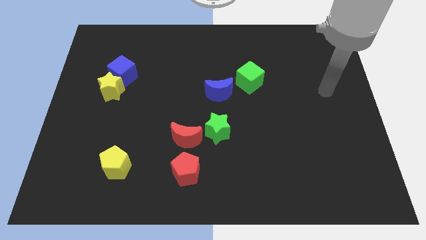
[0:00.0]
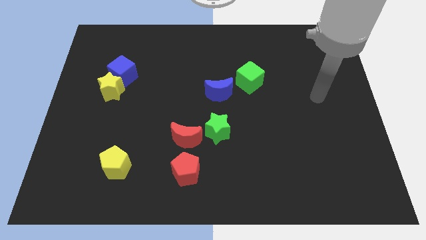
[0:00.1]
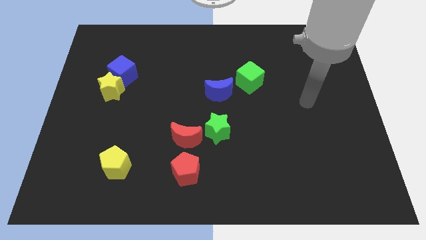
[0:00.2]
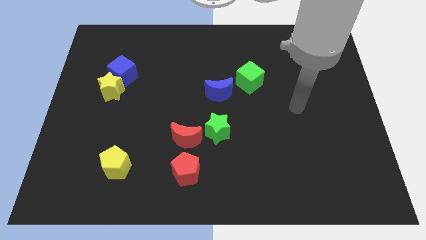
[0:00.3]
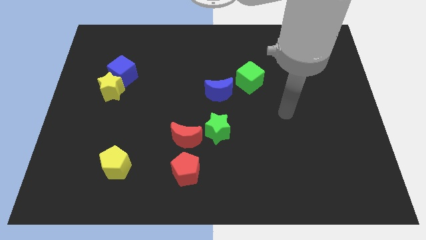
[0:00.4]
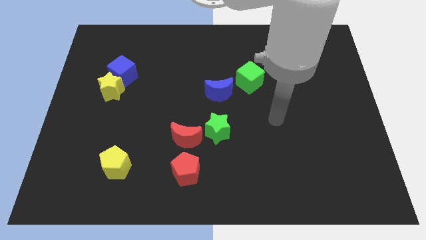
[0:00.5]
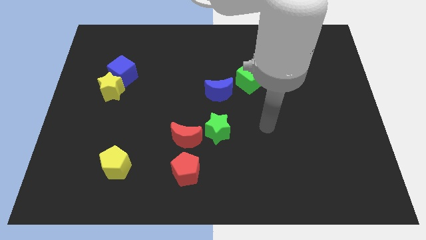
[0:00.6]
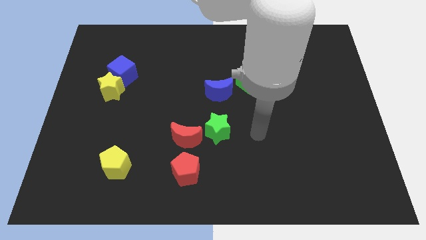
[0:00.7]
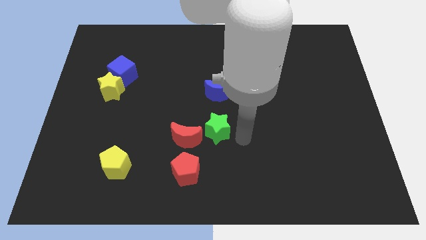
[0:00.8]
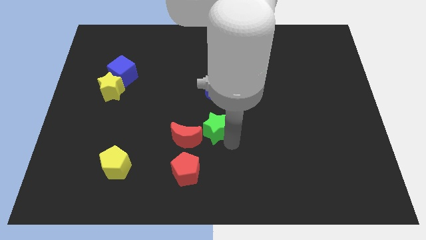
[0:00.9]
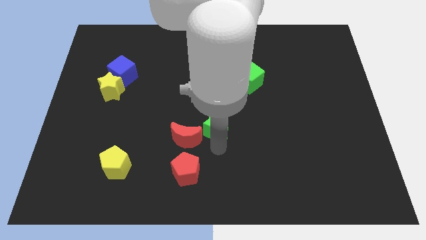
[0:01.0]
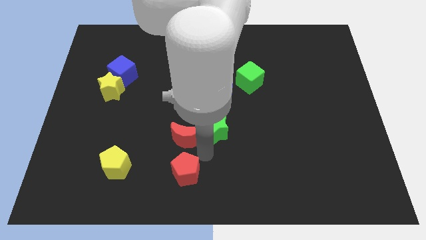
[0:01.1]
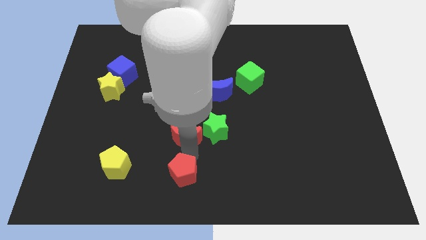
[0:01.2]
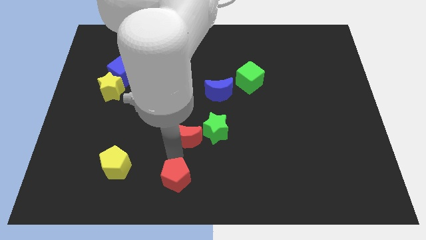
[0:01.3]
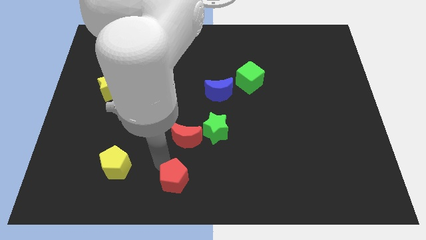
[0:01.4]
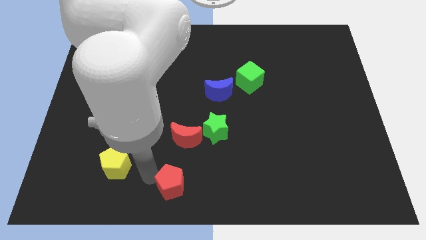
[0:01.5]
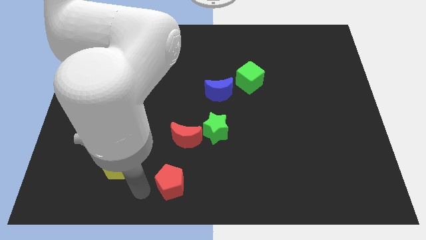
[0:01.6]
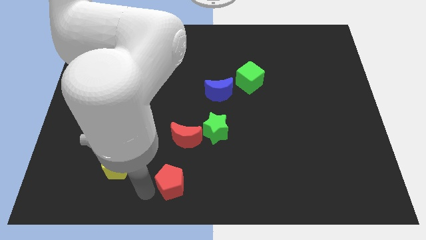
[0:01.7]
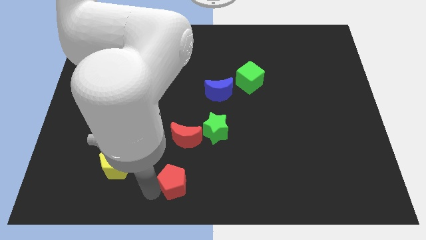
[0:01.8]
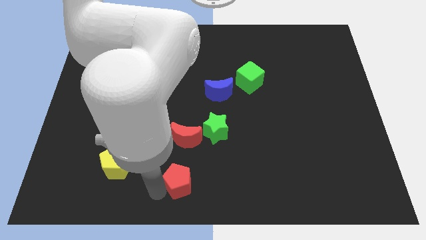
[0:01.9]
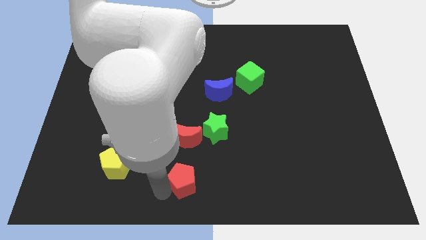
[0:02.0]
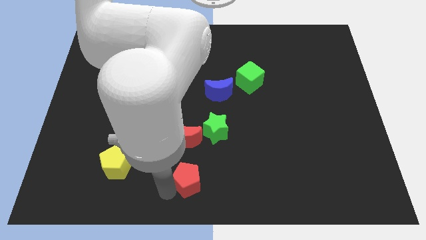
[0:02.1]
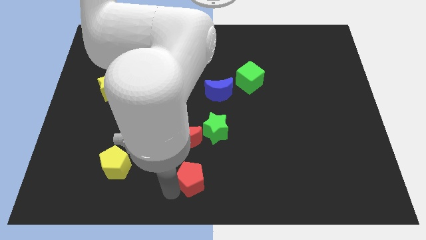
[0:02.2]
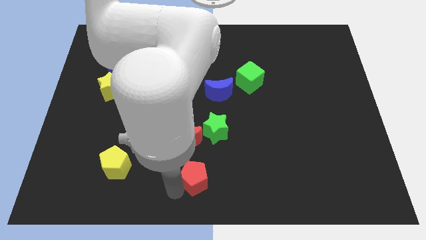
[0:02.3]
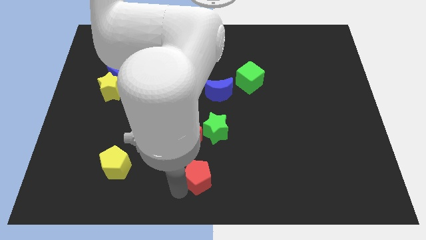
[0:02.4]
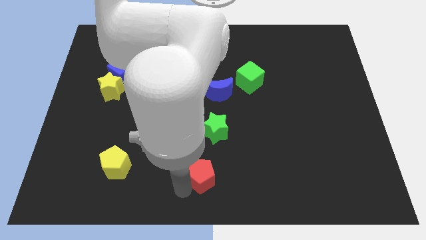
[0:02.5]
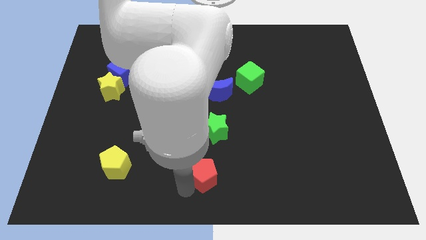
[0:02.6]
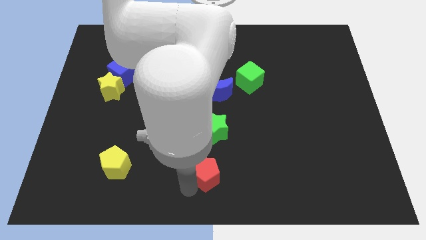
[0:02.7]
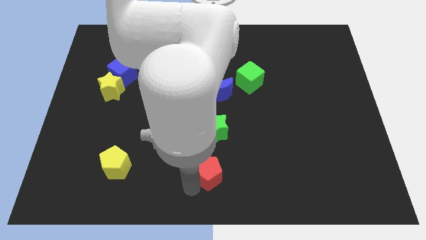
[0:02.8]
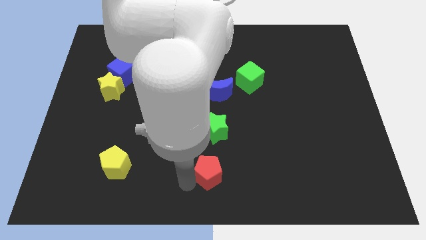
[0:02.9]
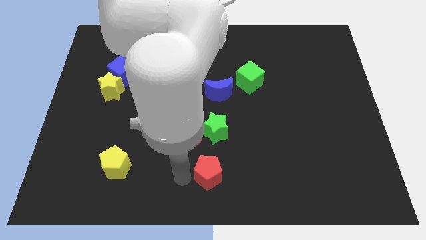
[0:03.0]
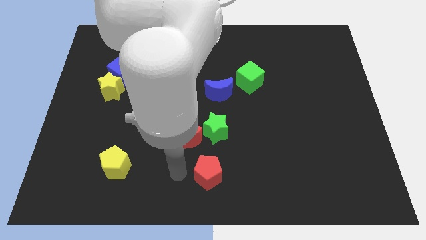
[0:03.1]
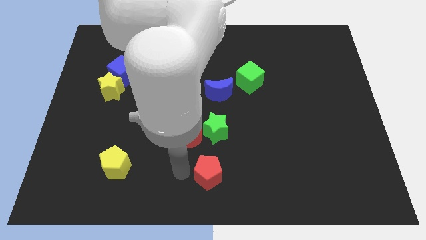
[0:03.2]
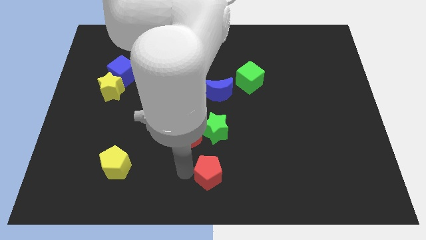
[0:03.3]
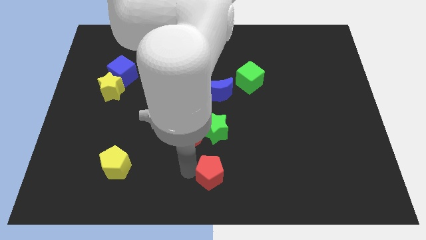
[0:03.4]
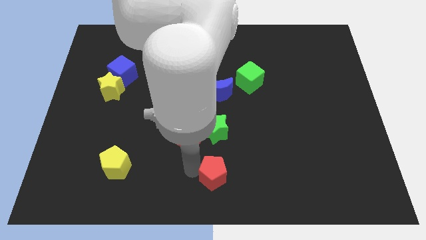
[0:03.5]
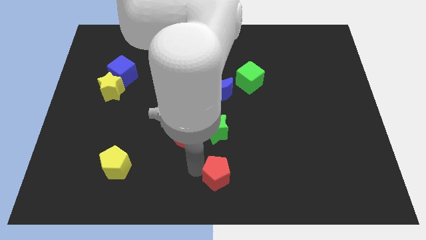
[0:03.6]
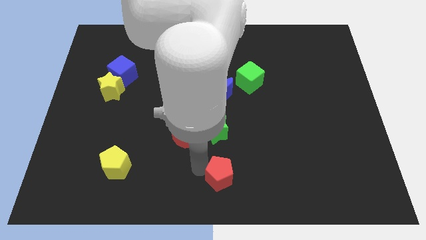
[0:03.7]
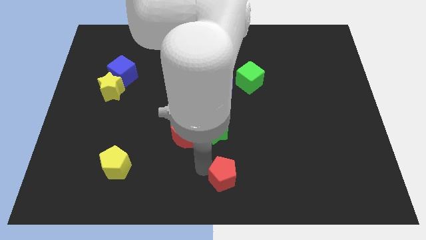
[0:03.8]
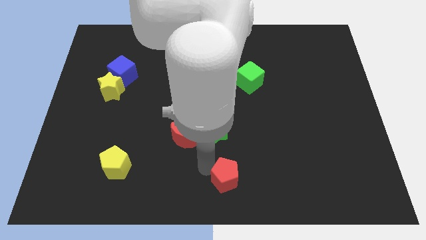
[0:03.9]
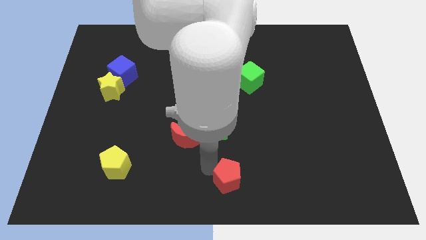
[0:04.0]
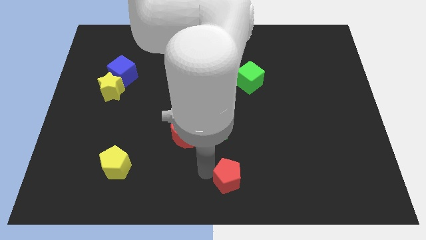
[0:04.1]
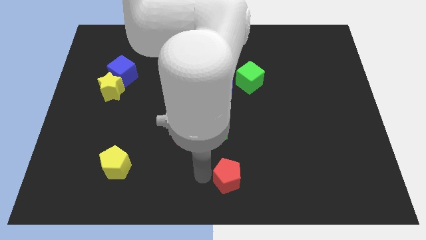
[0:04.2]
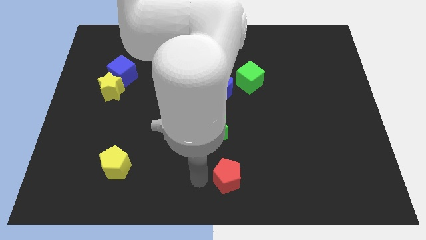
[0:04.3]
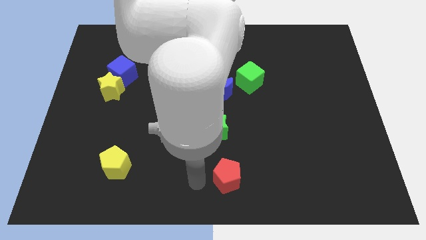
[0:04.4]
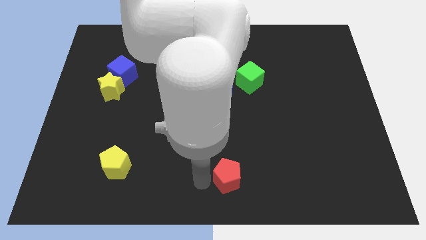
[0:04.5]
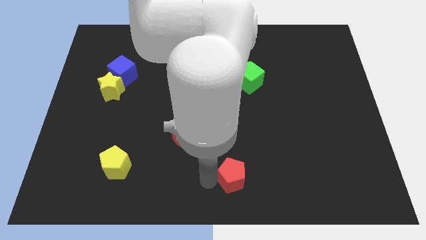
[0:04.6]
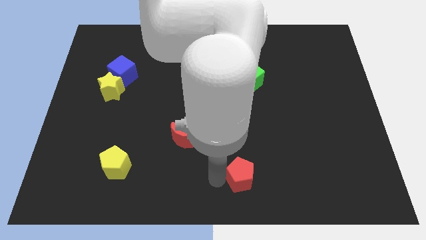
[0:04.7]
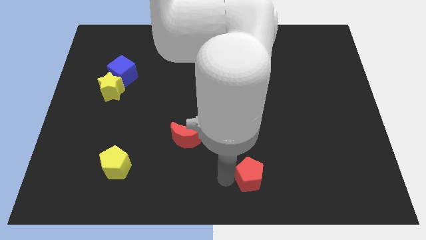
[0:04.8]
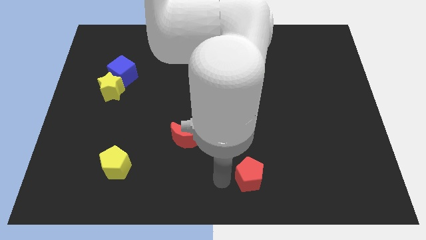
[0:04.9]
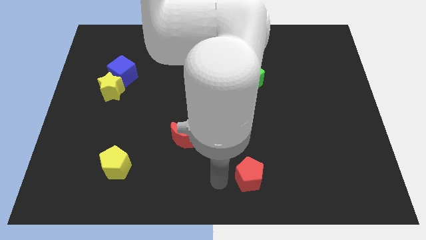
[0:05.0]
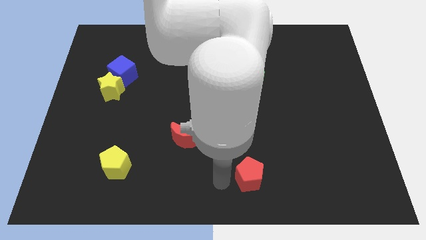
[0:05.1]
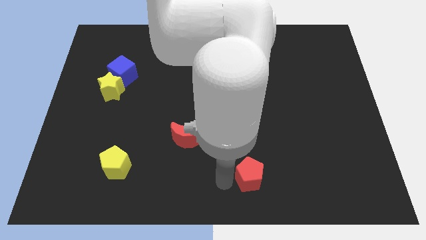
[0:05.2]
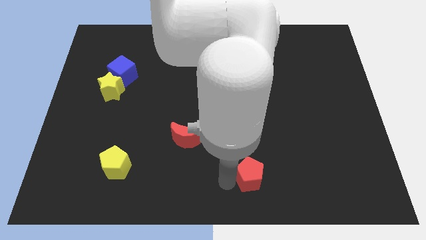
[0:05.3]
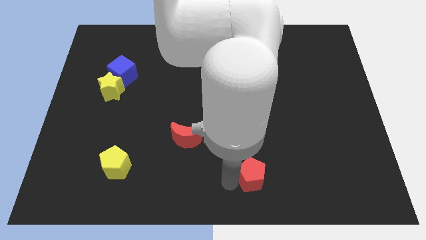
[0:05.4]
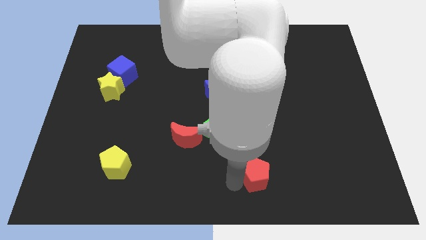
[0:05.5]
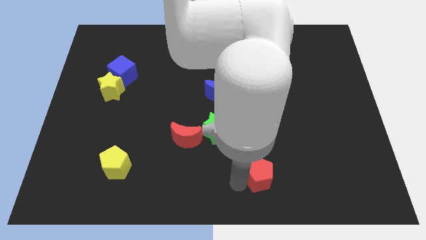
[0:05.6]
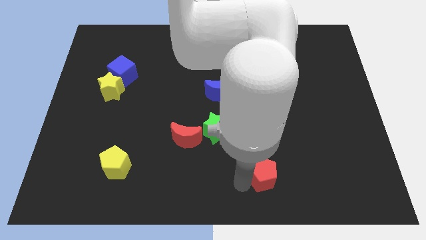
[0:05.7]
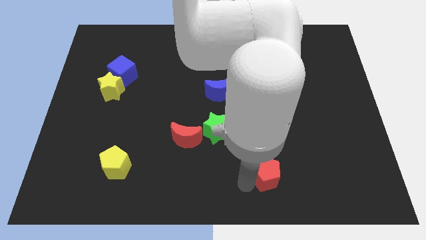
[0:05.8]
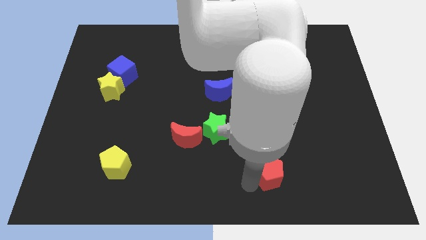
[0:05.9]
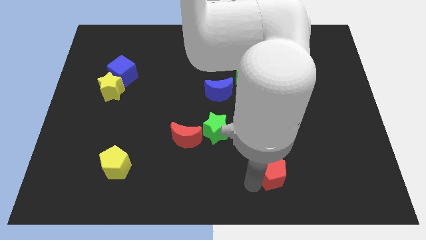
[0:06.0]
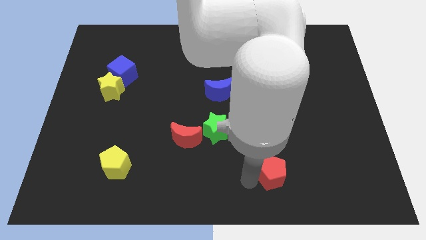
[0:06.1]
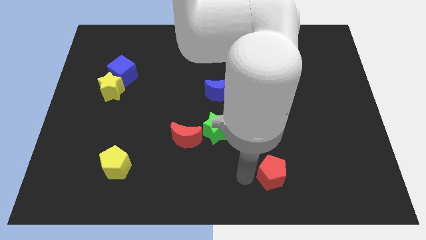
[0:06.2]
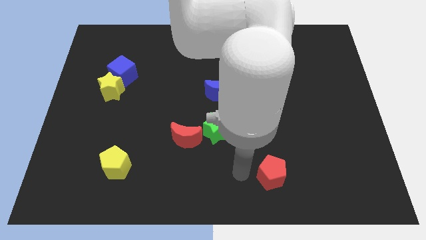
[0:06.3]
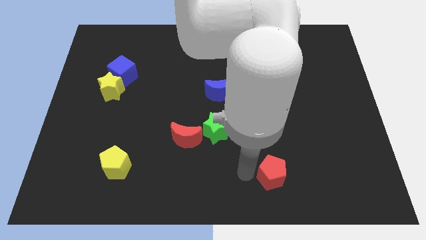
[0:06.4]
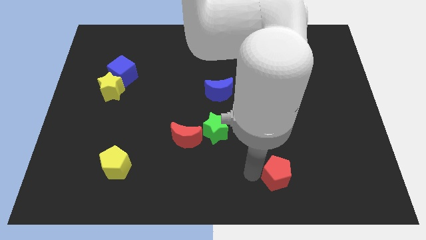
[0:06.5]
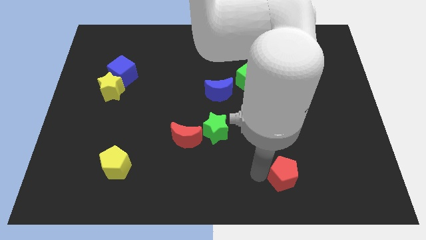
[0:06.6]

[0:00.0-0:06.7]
move the red pentagon right

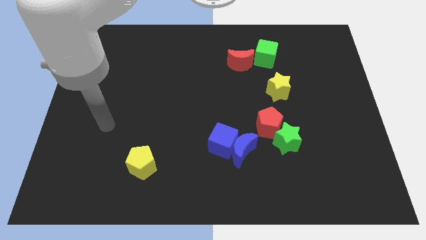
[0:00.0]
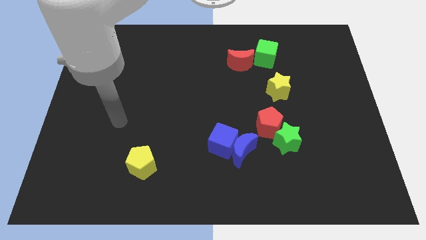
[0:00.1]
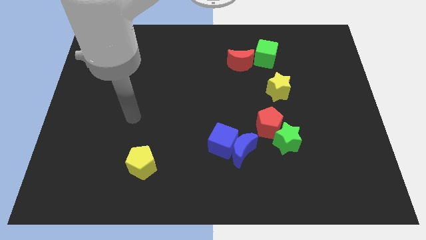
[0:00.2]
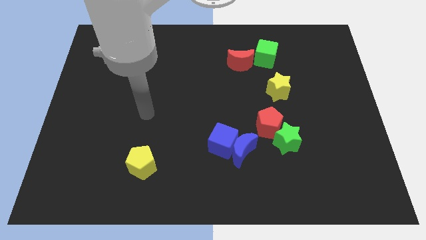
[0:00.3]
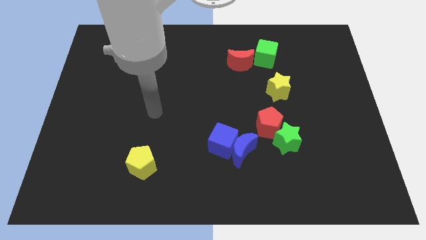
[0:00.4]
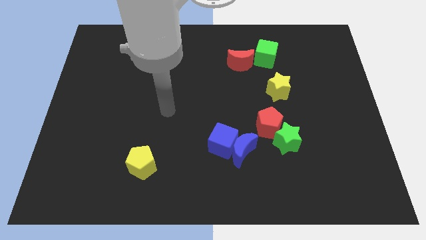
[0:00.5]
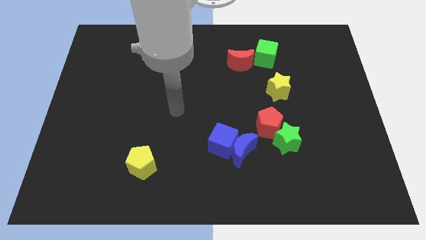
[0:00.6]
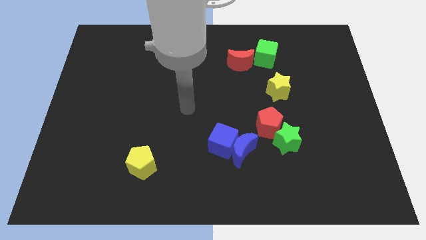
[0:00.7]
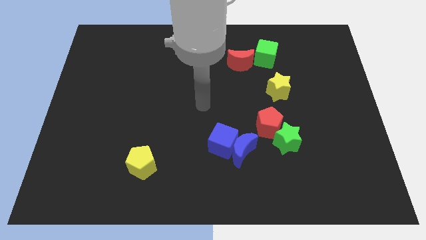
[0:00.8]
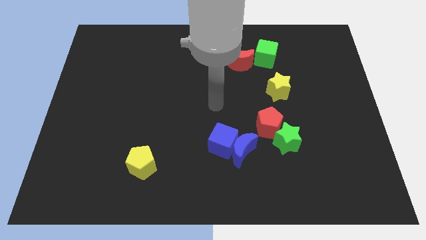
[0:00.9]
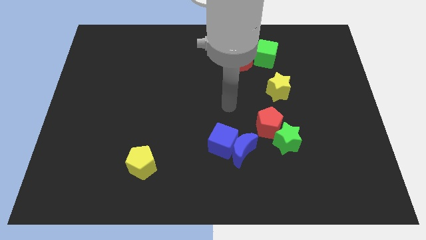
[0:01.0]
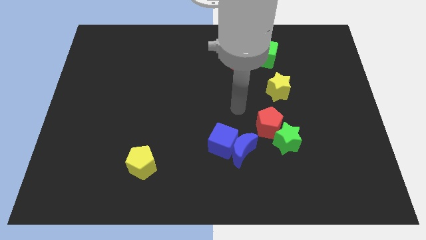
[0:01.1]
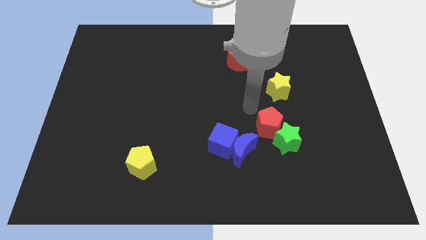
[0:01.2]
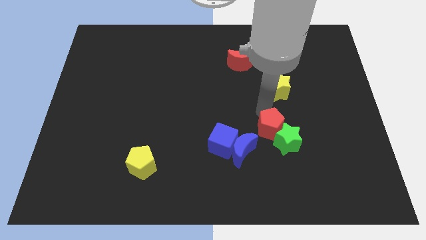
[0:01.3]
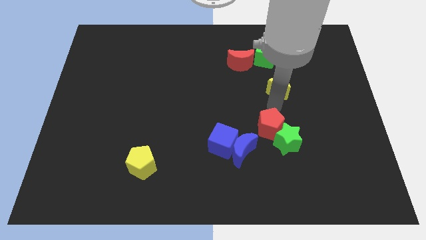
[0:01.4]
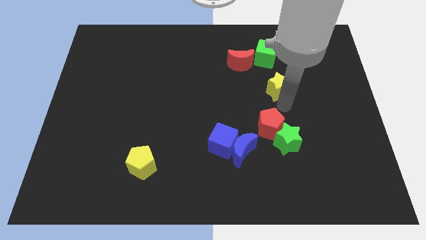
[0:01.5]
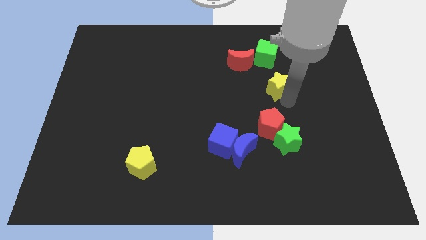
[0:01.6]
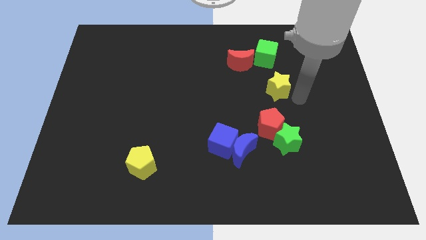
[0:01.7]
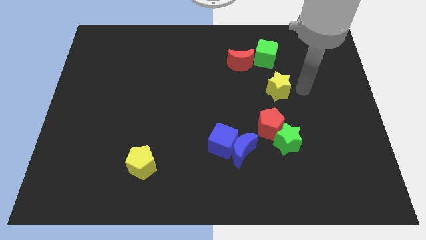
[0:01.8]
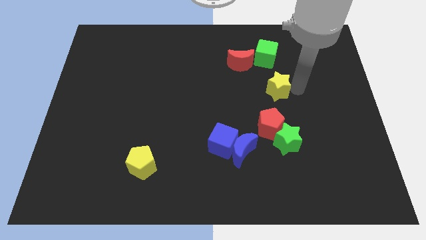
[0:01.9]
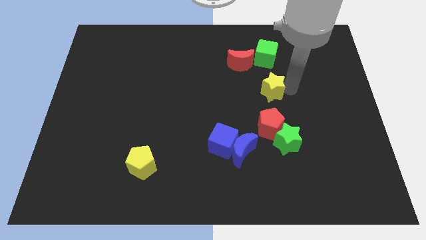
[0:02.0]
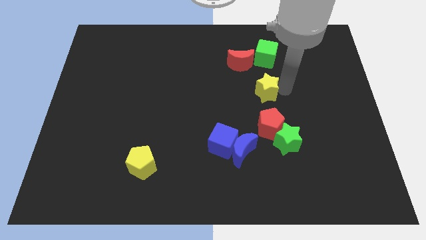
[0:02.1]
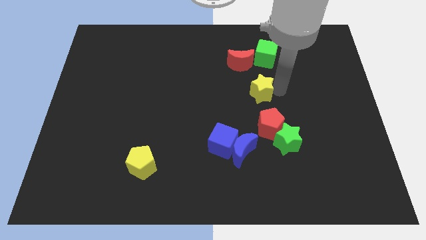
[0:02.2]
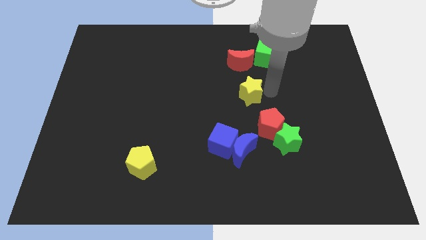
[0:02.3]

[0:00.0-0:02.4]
slightly slide the yellow star left
